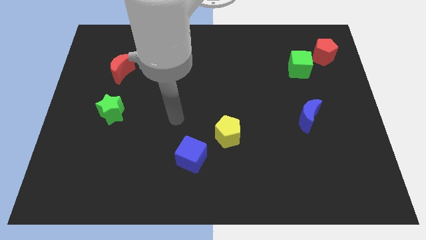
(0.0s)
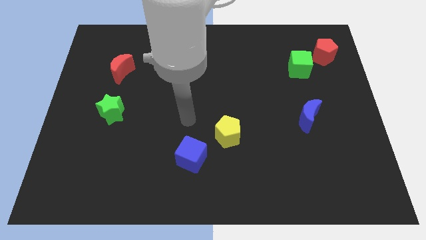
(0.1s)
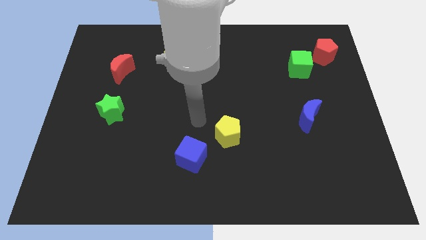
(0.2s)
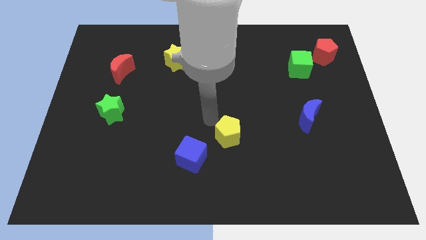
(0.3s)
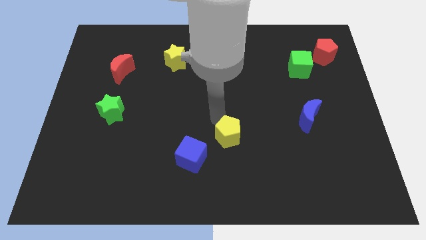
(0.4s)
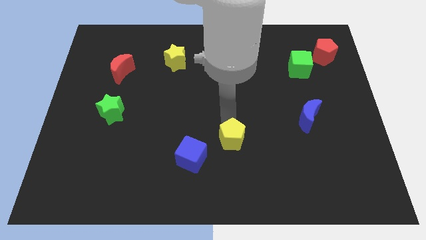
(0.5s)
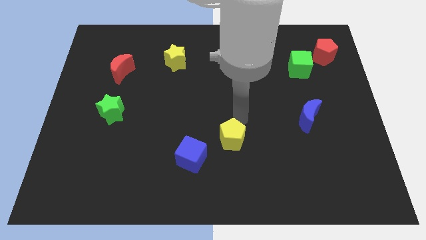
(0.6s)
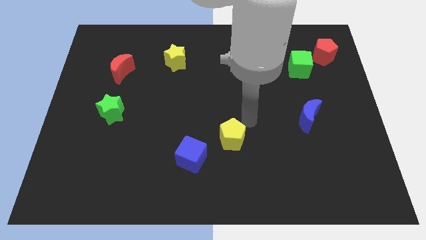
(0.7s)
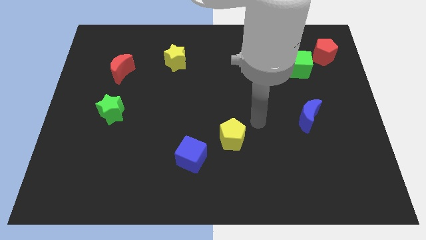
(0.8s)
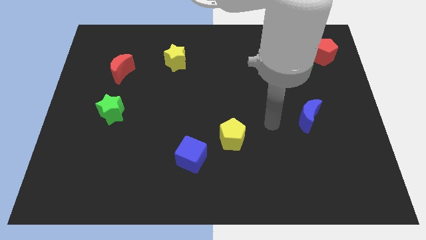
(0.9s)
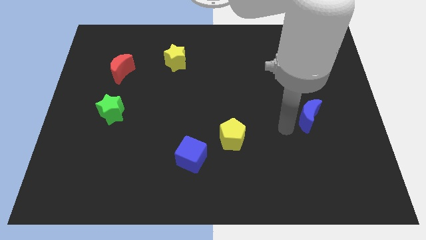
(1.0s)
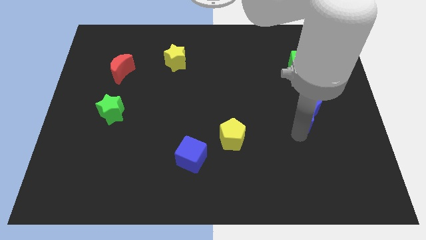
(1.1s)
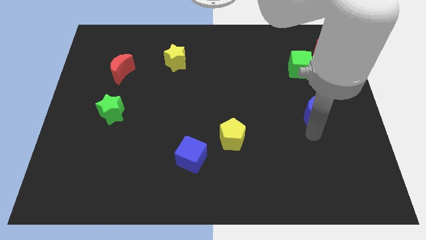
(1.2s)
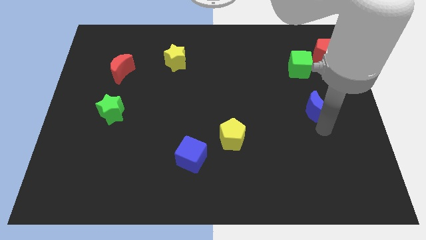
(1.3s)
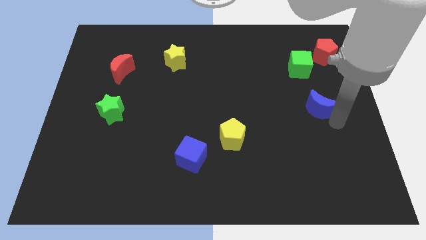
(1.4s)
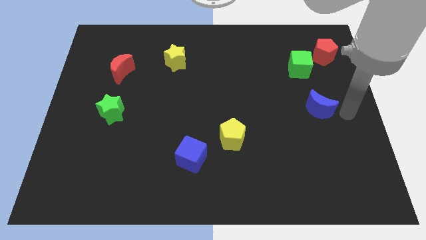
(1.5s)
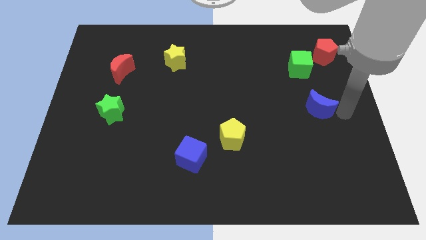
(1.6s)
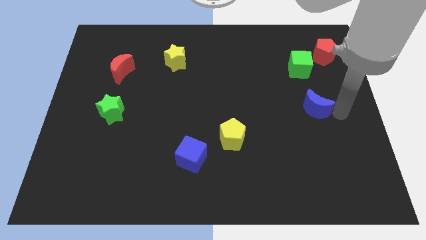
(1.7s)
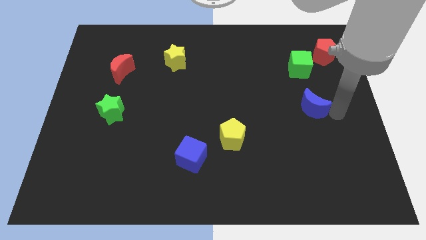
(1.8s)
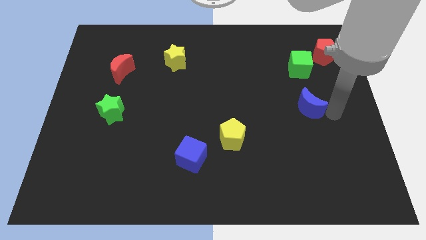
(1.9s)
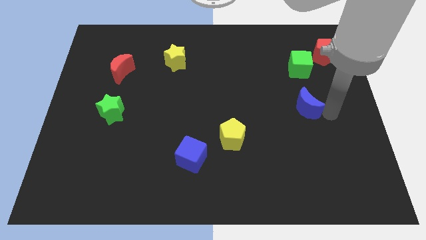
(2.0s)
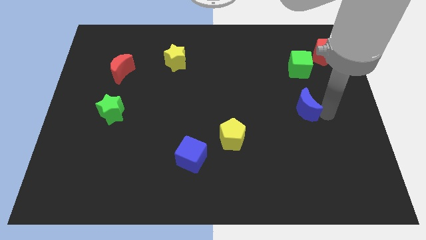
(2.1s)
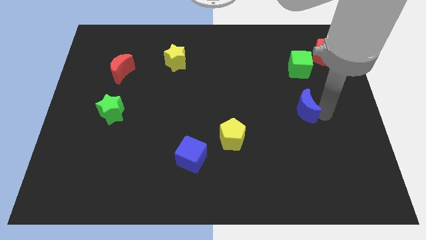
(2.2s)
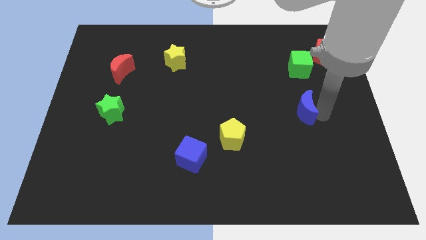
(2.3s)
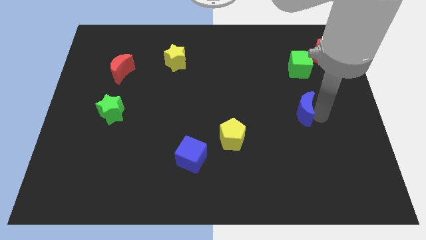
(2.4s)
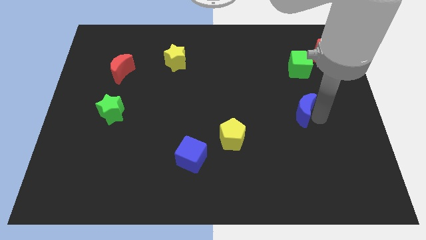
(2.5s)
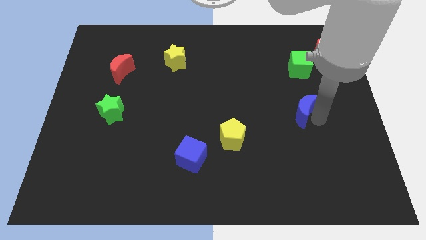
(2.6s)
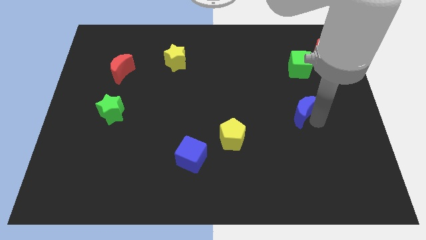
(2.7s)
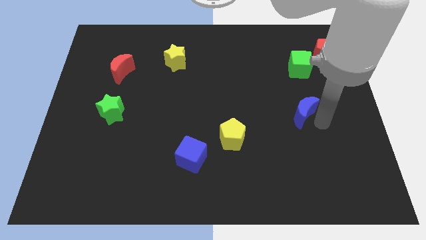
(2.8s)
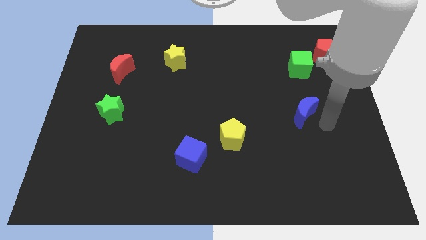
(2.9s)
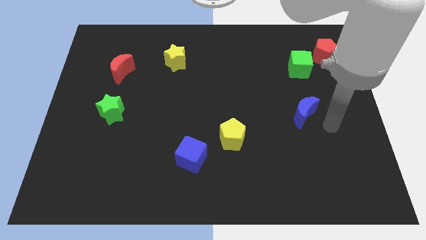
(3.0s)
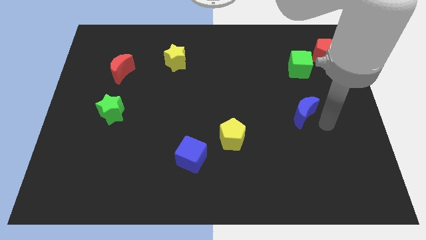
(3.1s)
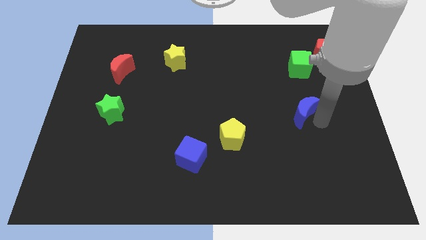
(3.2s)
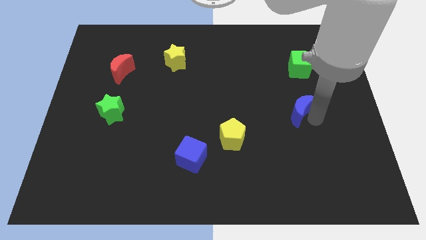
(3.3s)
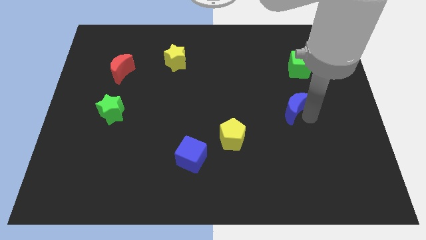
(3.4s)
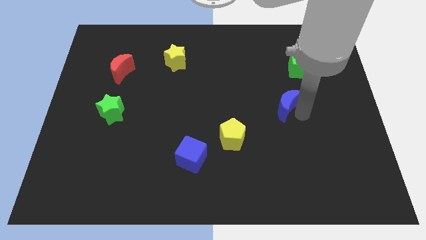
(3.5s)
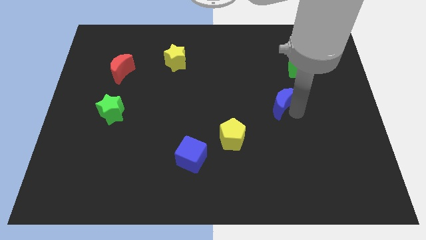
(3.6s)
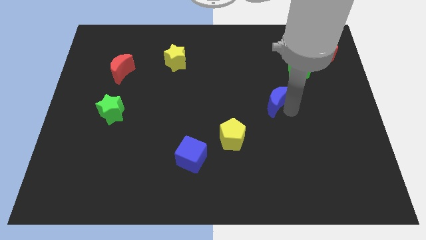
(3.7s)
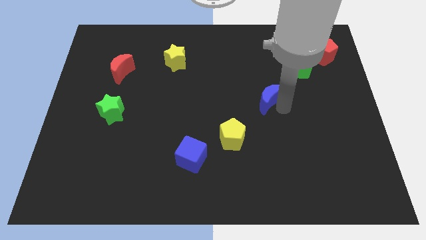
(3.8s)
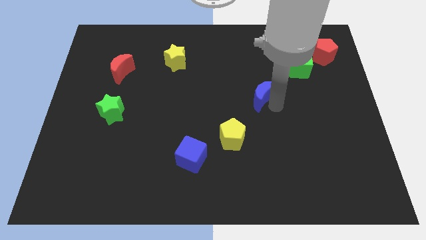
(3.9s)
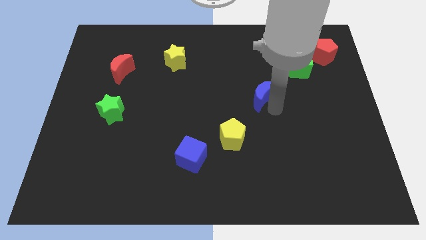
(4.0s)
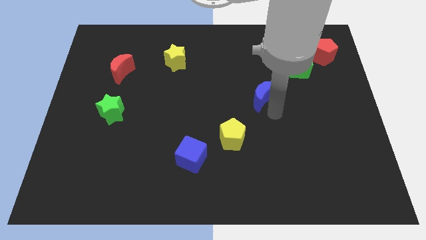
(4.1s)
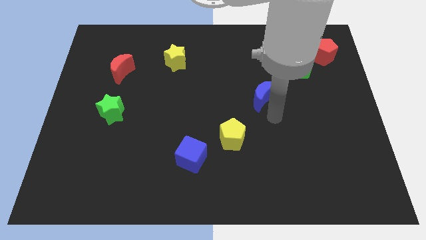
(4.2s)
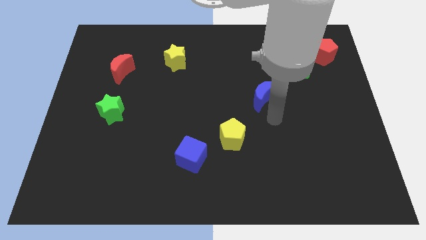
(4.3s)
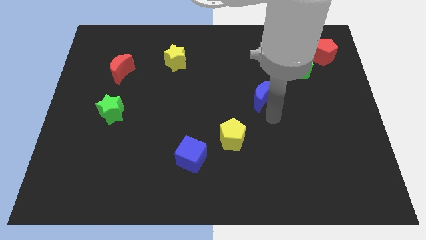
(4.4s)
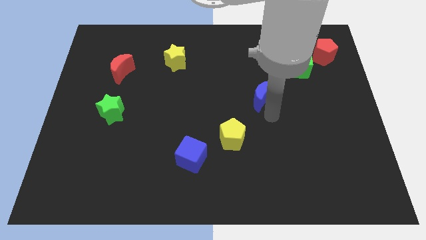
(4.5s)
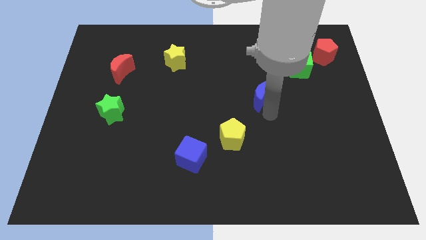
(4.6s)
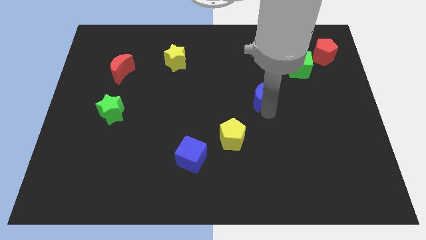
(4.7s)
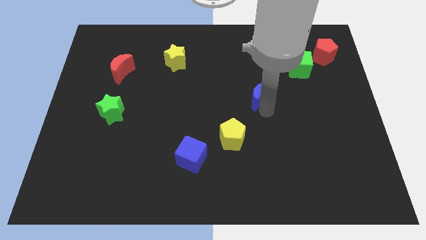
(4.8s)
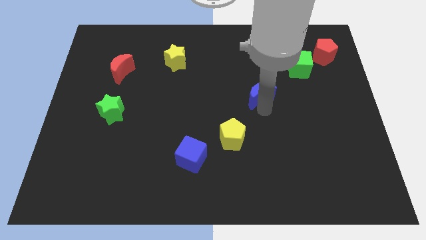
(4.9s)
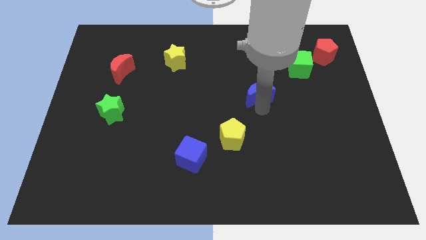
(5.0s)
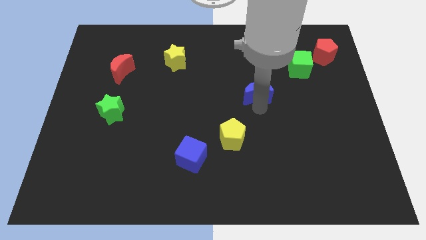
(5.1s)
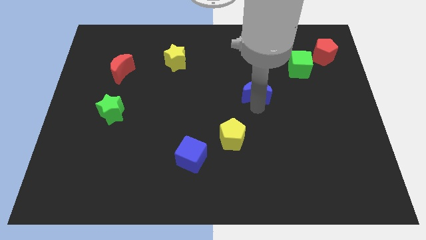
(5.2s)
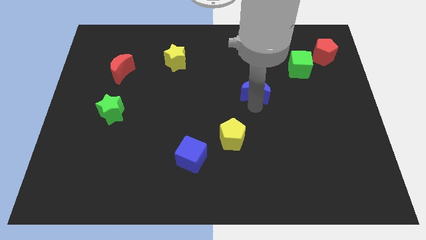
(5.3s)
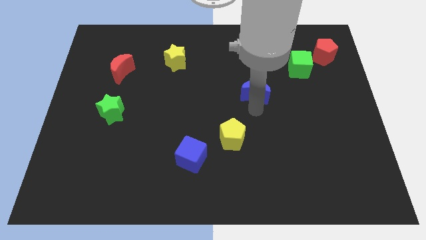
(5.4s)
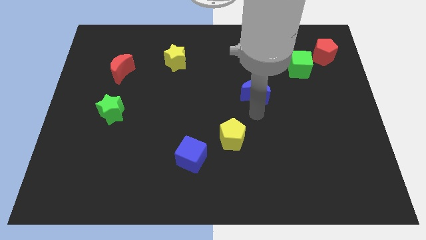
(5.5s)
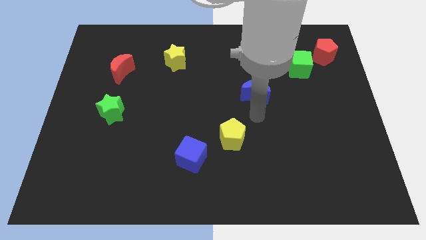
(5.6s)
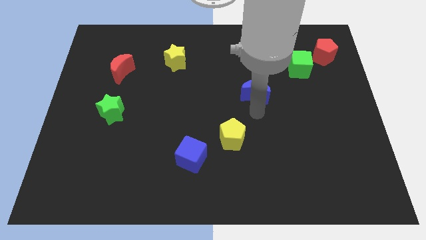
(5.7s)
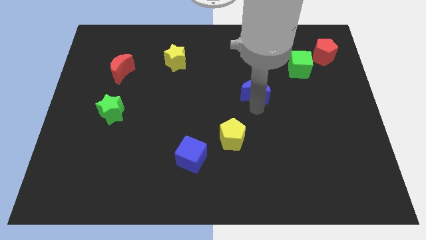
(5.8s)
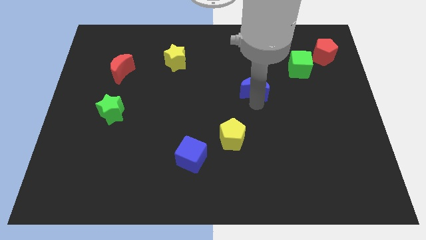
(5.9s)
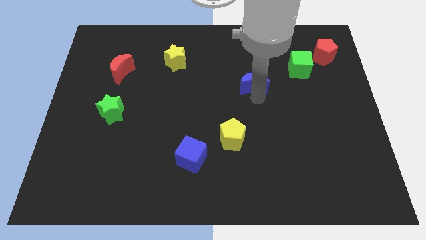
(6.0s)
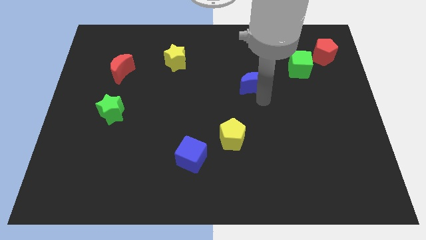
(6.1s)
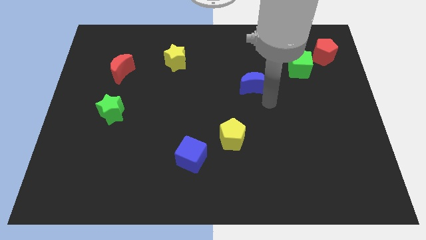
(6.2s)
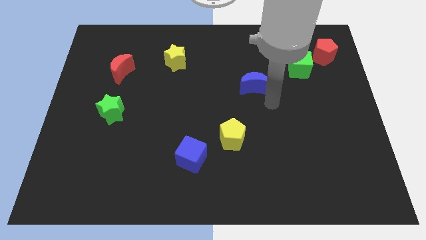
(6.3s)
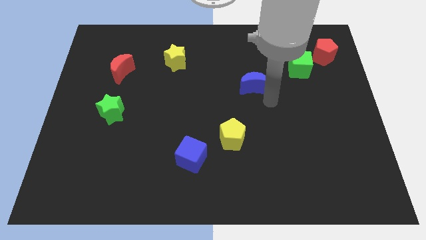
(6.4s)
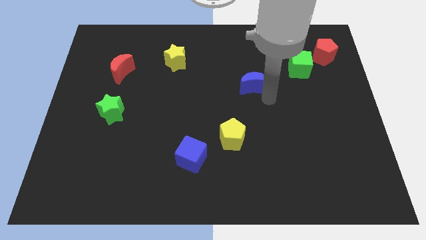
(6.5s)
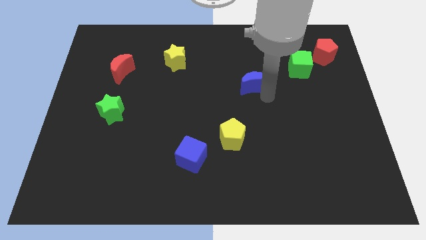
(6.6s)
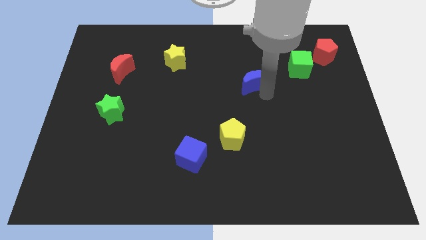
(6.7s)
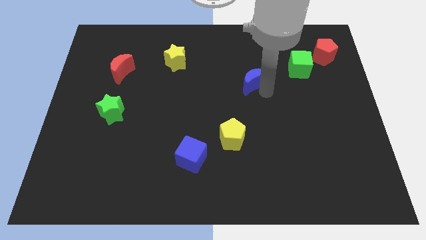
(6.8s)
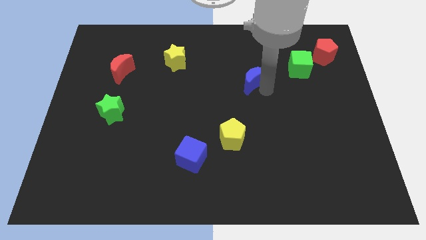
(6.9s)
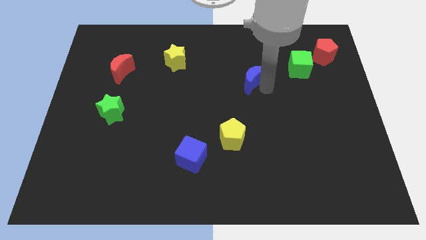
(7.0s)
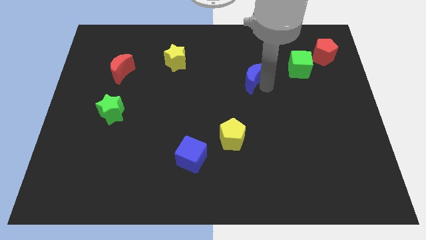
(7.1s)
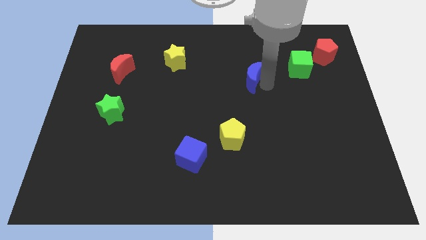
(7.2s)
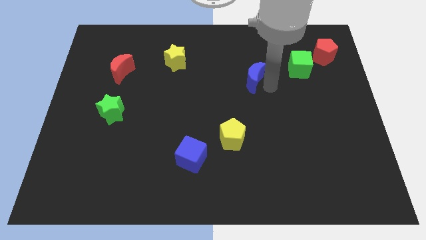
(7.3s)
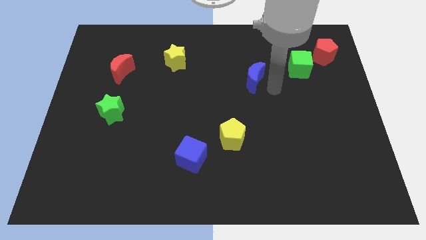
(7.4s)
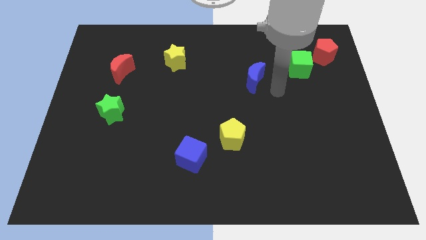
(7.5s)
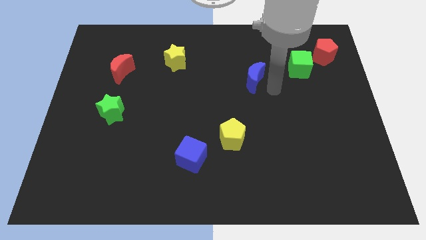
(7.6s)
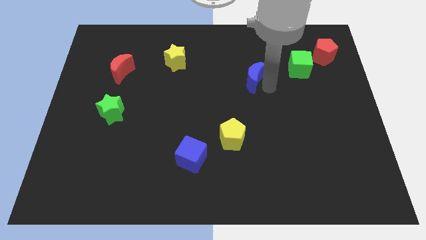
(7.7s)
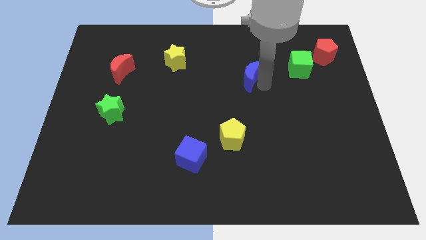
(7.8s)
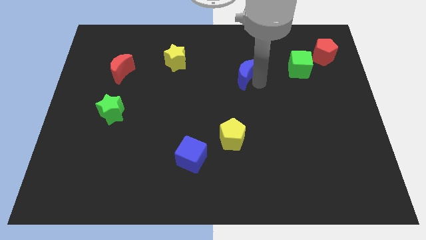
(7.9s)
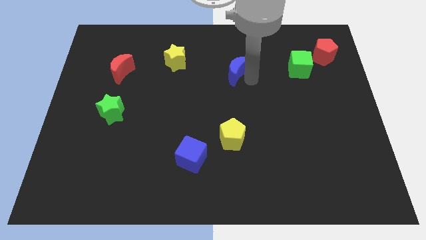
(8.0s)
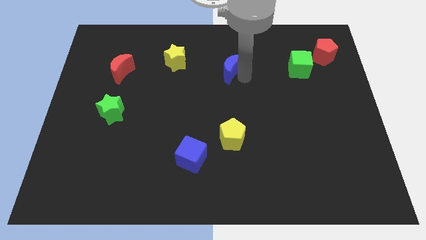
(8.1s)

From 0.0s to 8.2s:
push the blue moon to the right side of the yellow star

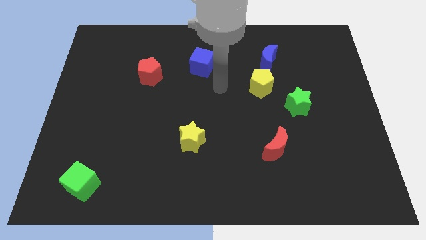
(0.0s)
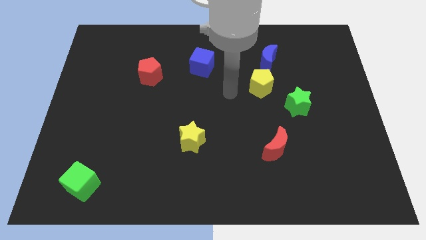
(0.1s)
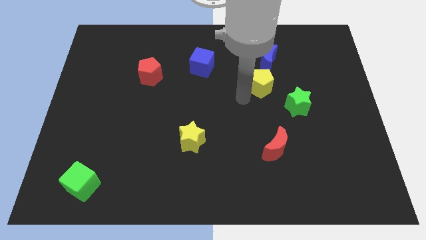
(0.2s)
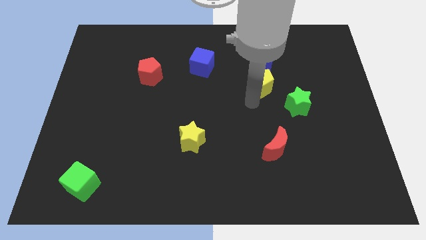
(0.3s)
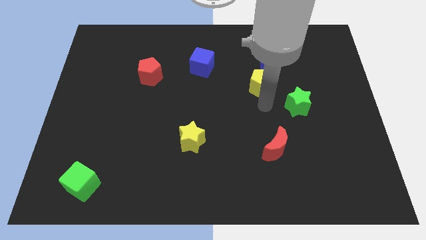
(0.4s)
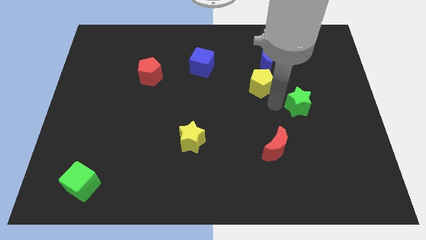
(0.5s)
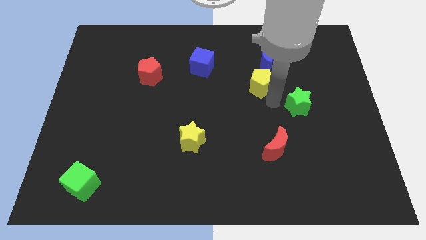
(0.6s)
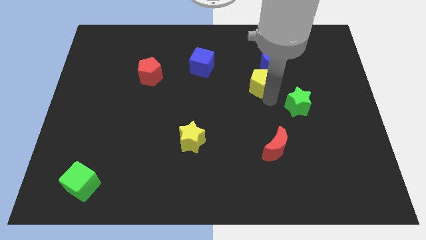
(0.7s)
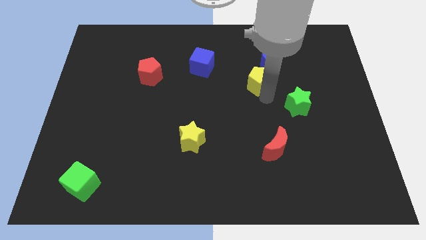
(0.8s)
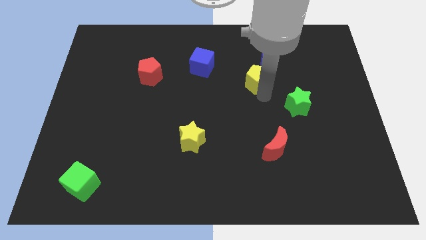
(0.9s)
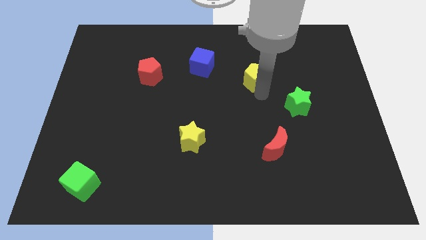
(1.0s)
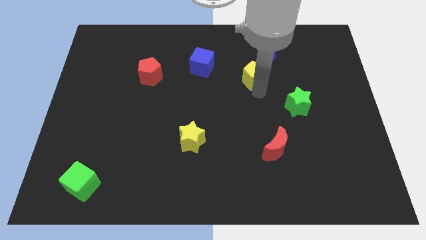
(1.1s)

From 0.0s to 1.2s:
put the yellow pentagon to the right of the blue cube
